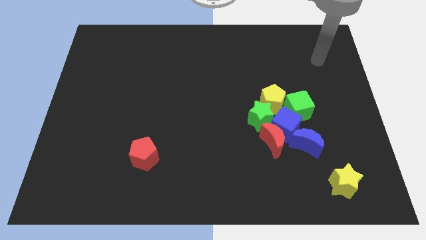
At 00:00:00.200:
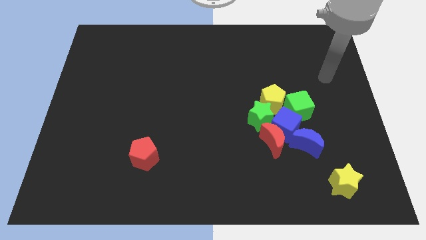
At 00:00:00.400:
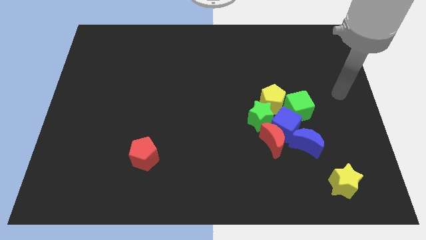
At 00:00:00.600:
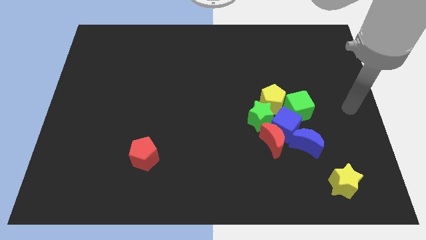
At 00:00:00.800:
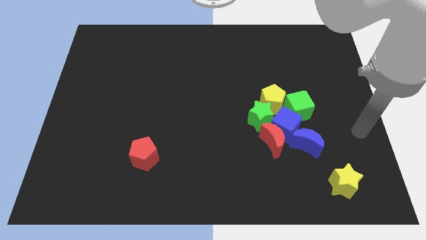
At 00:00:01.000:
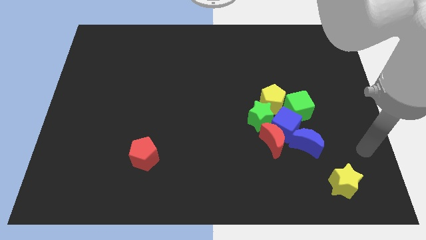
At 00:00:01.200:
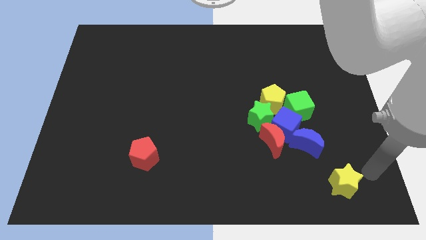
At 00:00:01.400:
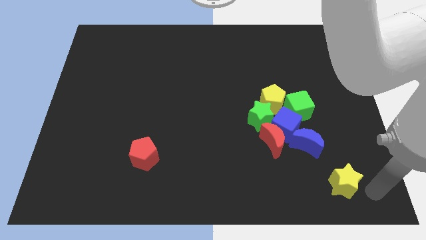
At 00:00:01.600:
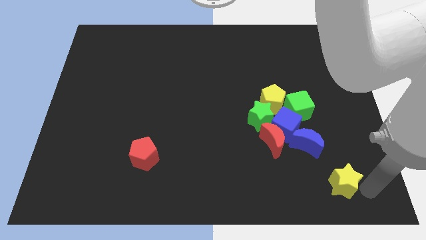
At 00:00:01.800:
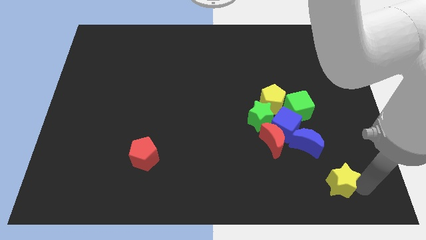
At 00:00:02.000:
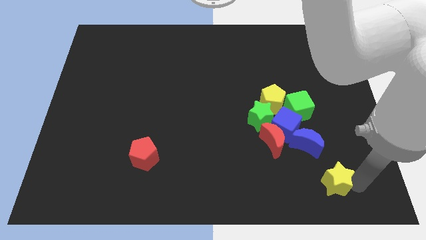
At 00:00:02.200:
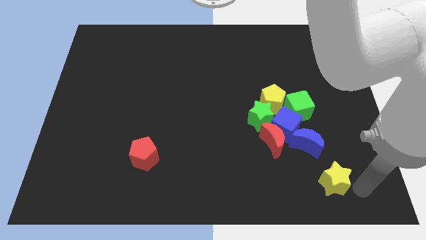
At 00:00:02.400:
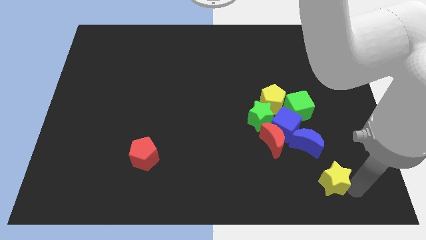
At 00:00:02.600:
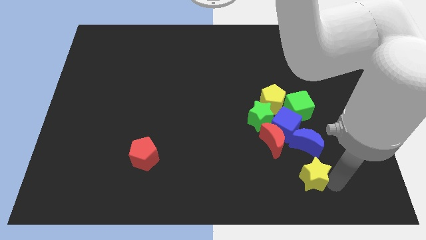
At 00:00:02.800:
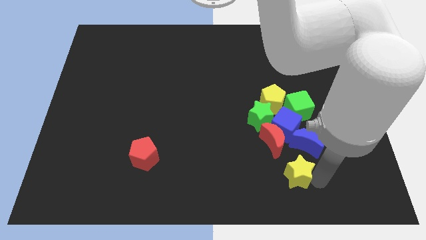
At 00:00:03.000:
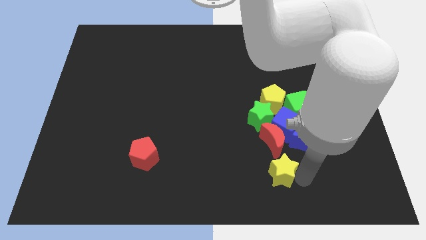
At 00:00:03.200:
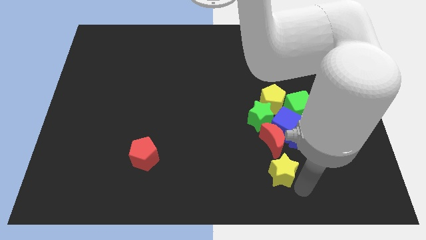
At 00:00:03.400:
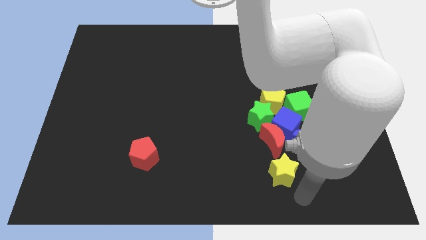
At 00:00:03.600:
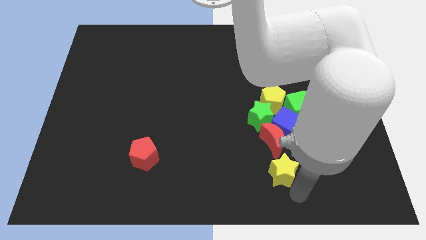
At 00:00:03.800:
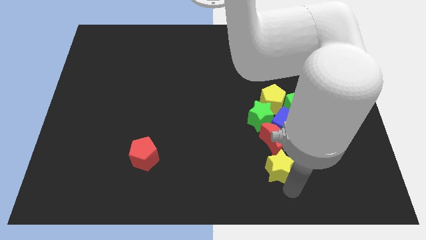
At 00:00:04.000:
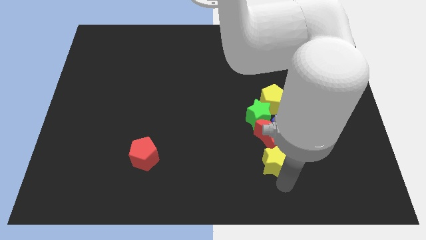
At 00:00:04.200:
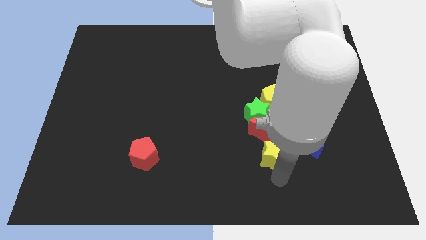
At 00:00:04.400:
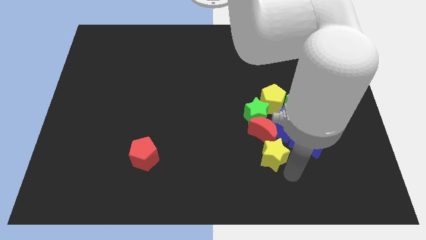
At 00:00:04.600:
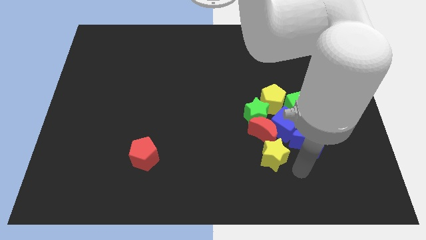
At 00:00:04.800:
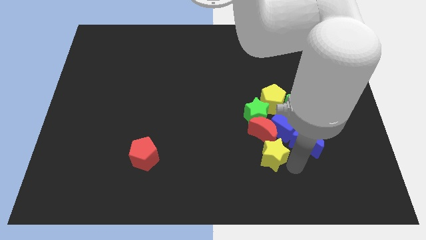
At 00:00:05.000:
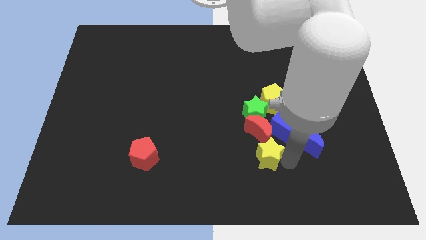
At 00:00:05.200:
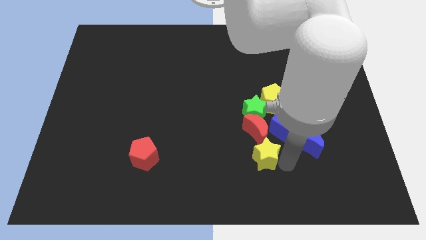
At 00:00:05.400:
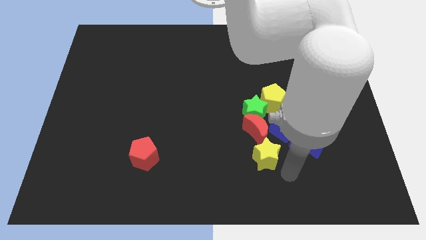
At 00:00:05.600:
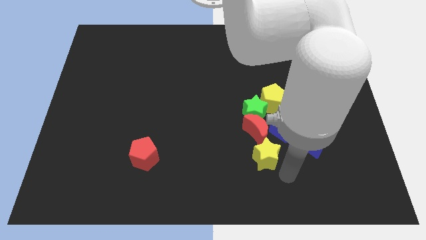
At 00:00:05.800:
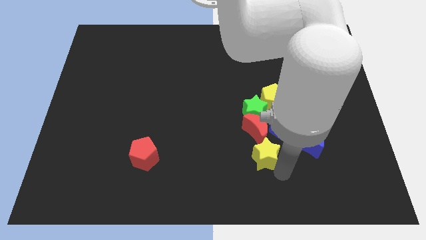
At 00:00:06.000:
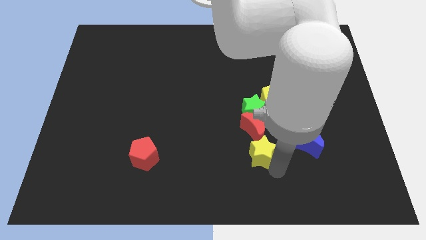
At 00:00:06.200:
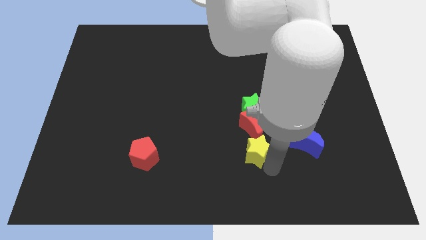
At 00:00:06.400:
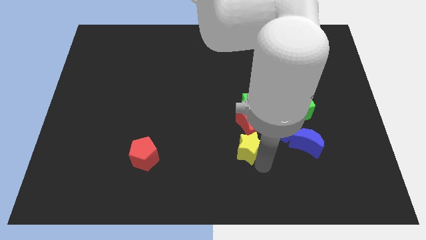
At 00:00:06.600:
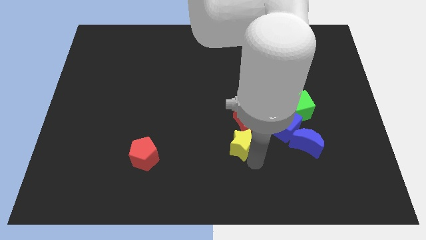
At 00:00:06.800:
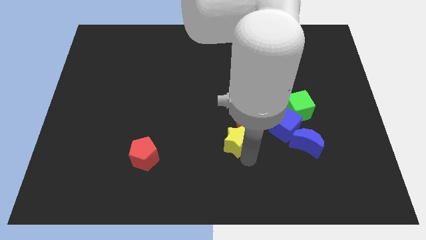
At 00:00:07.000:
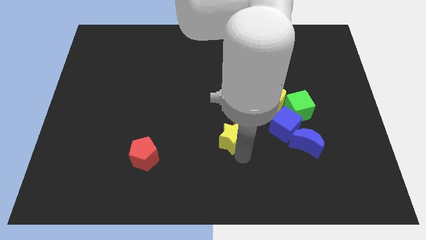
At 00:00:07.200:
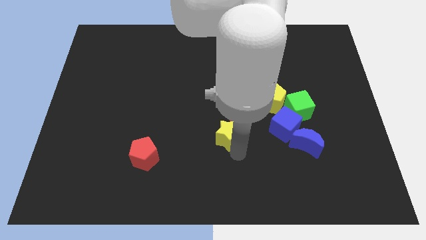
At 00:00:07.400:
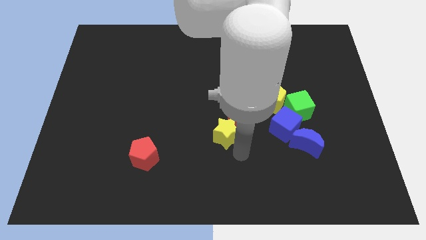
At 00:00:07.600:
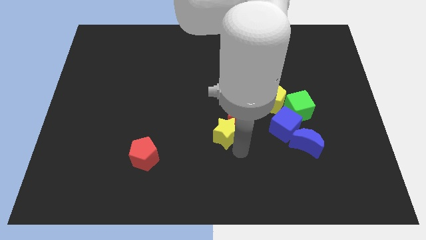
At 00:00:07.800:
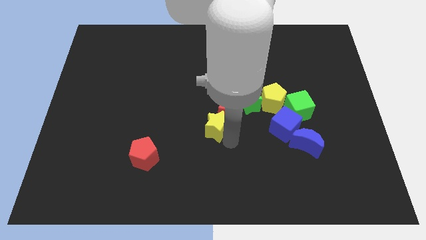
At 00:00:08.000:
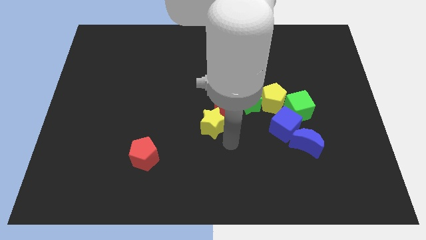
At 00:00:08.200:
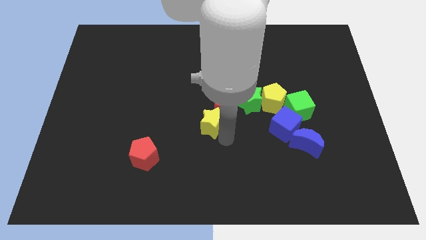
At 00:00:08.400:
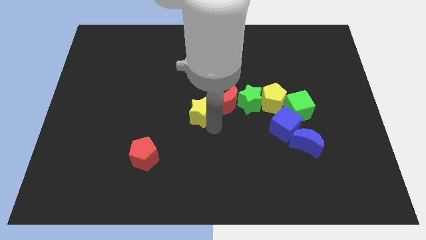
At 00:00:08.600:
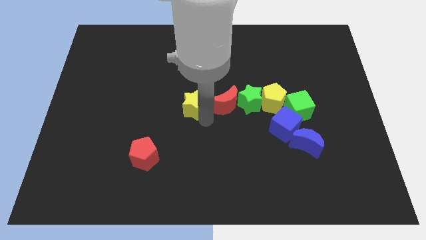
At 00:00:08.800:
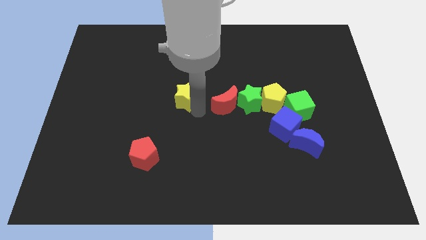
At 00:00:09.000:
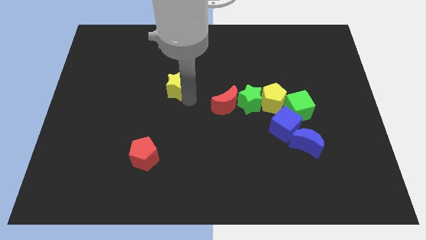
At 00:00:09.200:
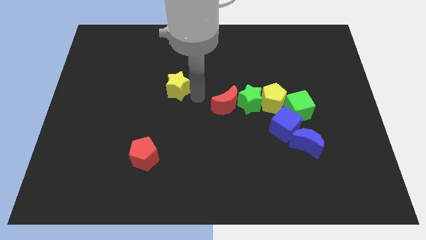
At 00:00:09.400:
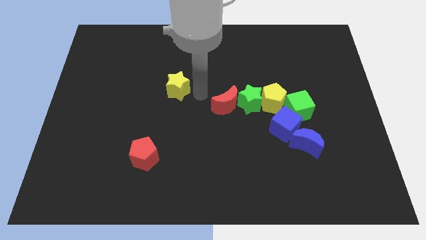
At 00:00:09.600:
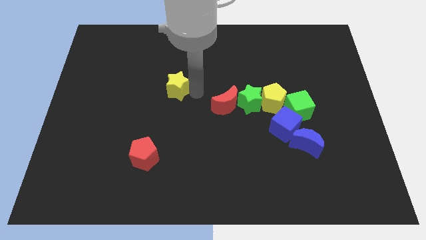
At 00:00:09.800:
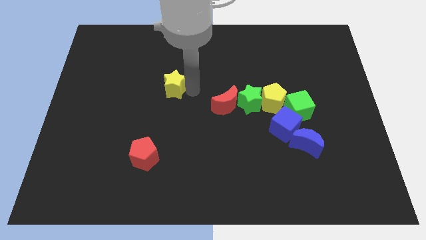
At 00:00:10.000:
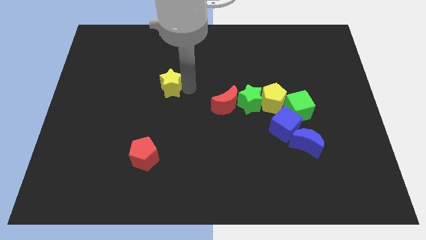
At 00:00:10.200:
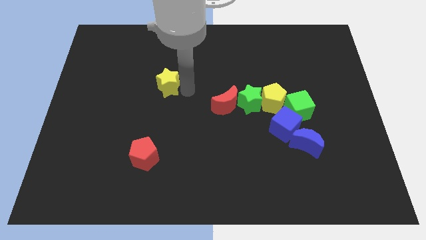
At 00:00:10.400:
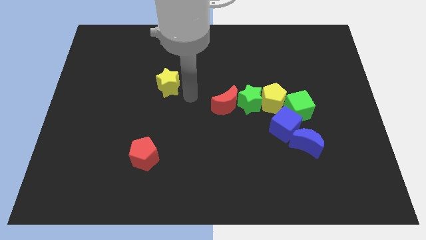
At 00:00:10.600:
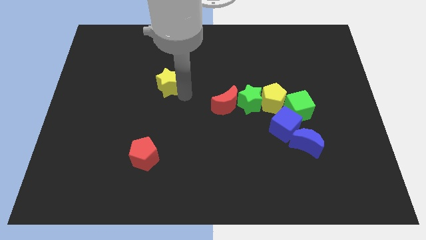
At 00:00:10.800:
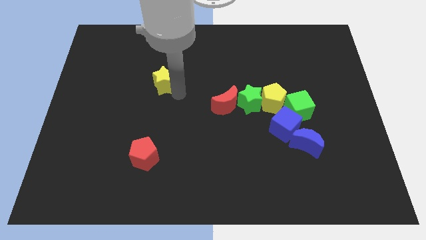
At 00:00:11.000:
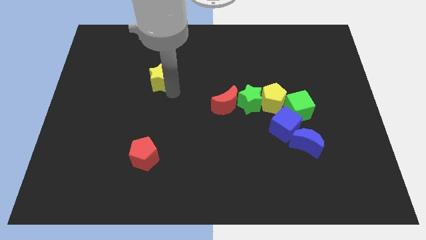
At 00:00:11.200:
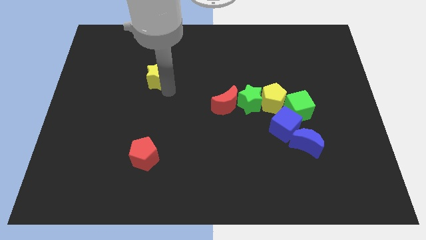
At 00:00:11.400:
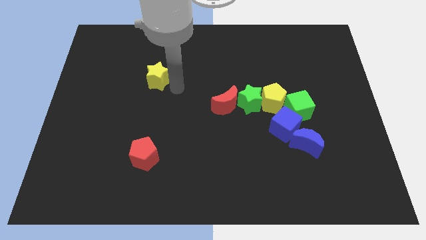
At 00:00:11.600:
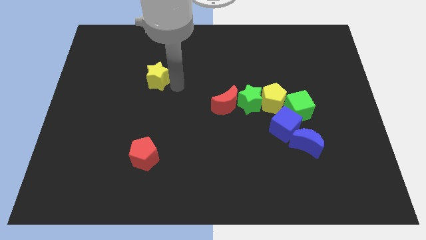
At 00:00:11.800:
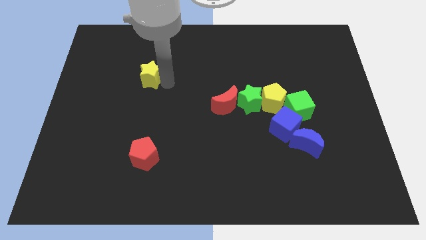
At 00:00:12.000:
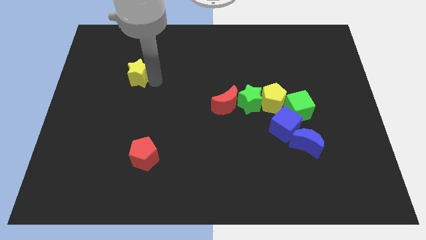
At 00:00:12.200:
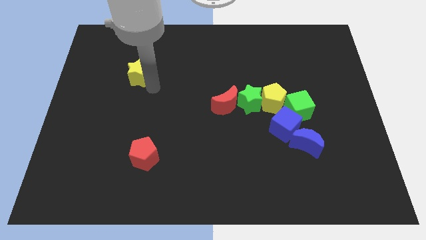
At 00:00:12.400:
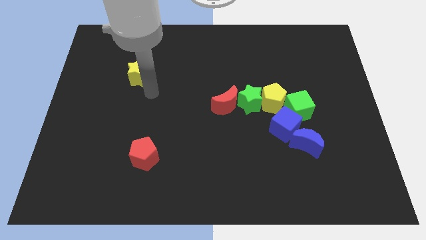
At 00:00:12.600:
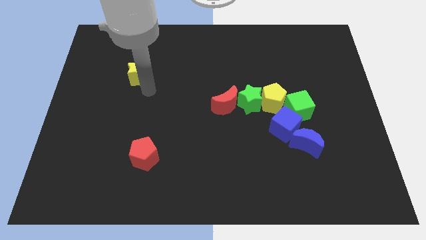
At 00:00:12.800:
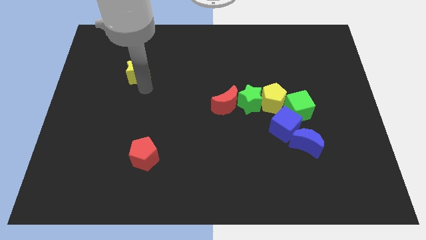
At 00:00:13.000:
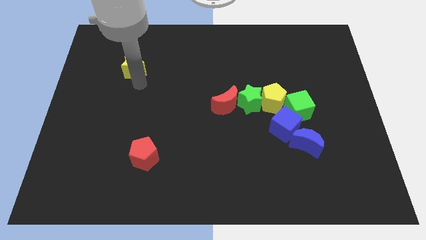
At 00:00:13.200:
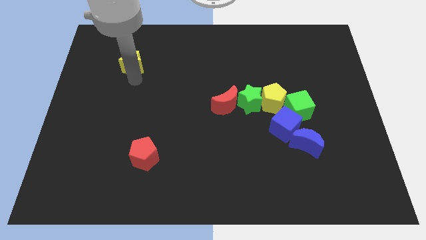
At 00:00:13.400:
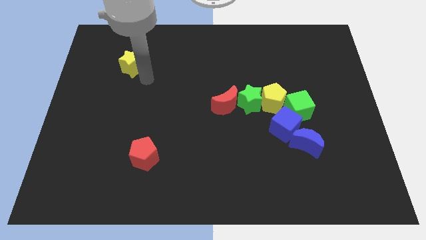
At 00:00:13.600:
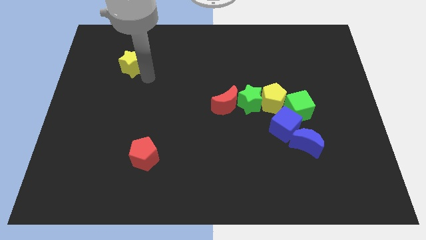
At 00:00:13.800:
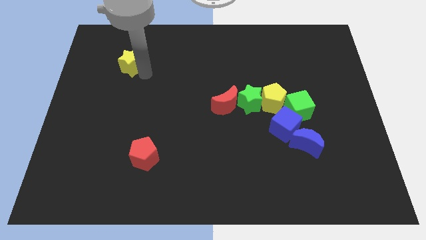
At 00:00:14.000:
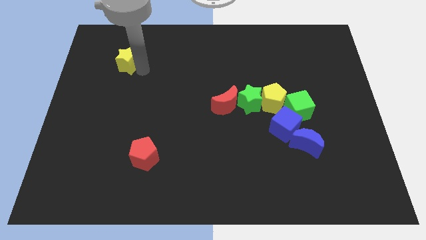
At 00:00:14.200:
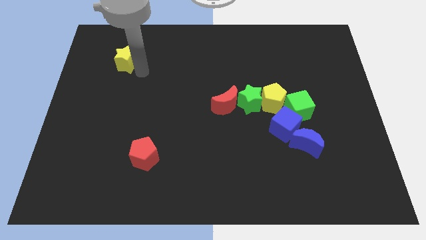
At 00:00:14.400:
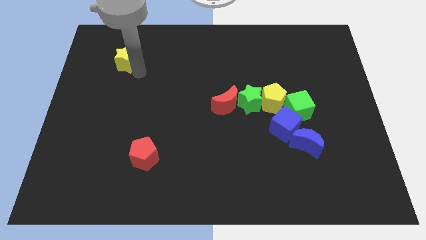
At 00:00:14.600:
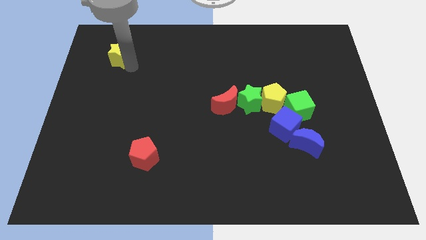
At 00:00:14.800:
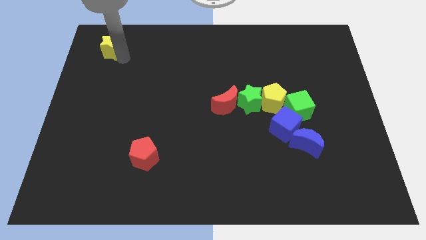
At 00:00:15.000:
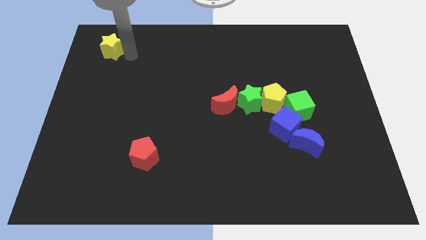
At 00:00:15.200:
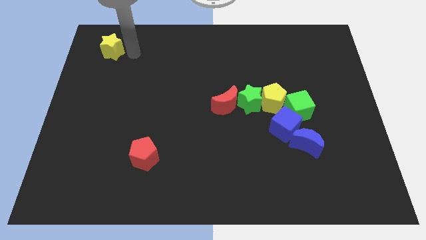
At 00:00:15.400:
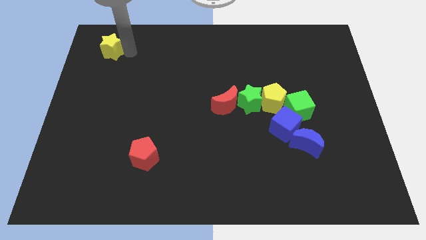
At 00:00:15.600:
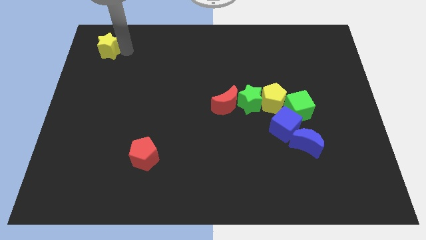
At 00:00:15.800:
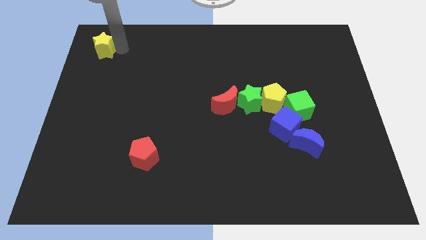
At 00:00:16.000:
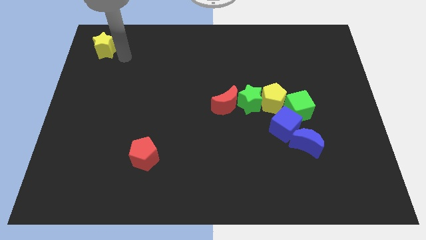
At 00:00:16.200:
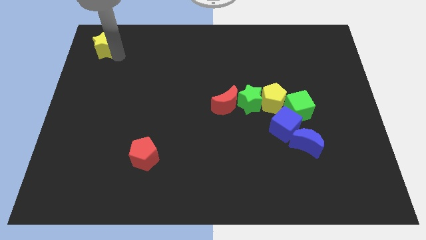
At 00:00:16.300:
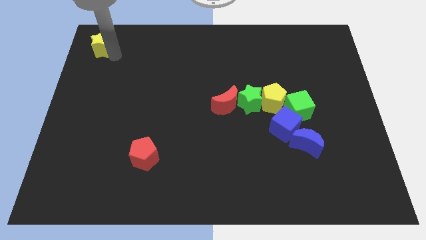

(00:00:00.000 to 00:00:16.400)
move the yellow star to the top left of the board
